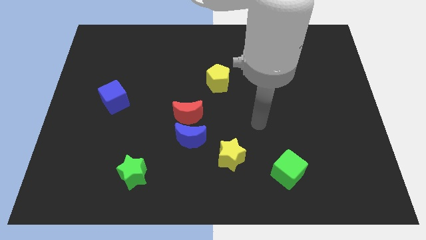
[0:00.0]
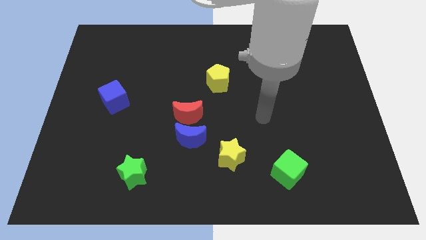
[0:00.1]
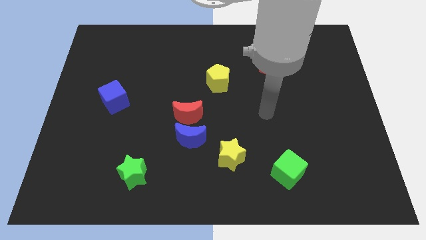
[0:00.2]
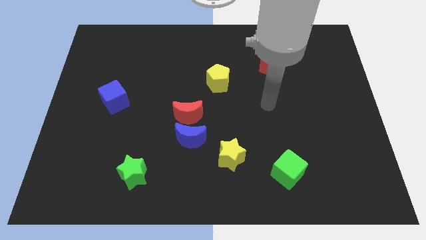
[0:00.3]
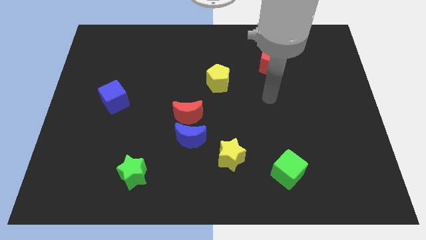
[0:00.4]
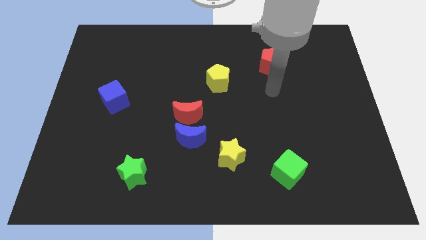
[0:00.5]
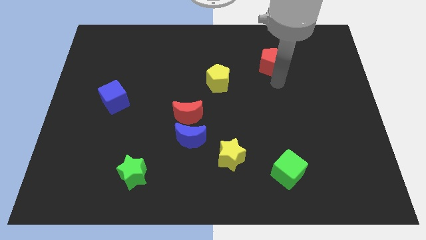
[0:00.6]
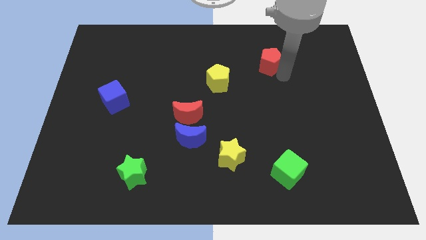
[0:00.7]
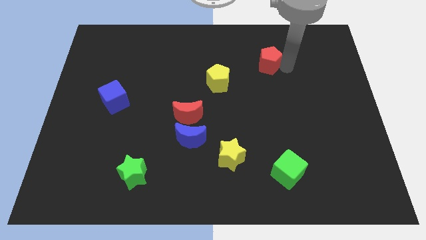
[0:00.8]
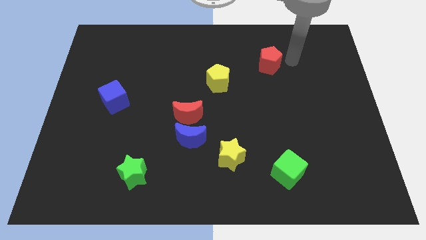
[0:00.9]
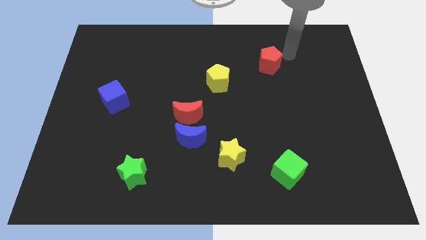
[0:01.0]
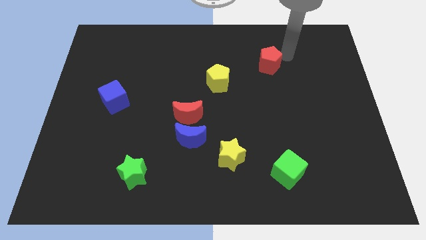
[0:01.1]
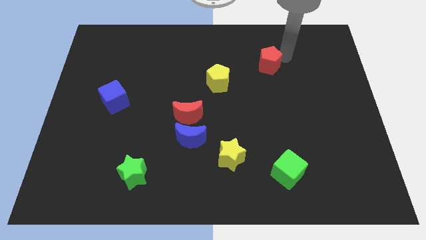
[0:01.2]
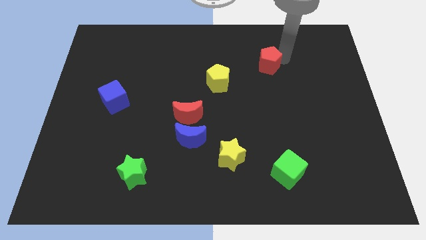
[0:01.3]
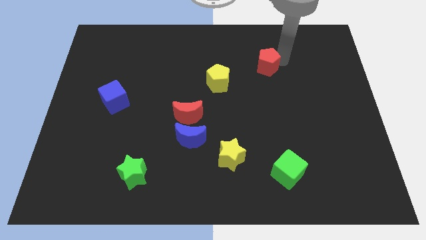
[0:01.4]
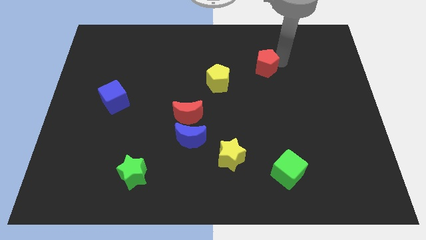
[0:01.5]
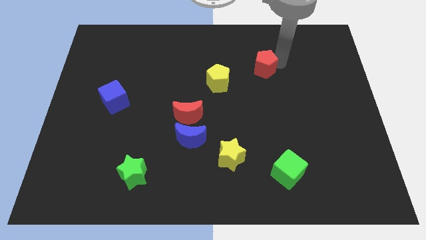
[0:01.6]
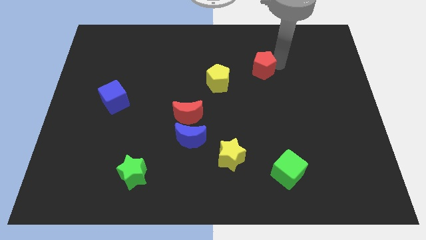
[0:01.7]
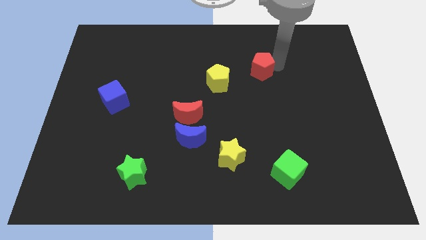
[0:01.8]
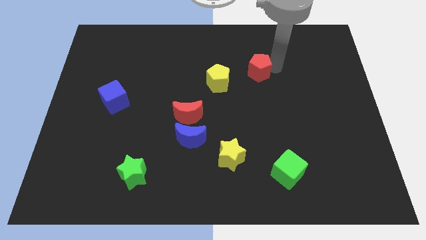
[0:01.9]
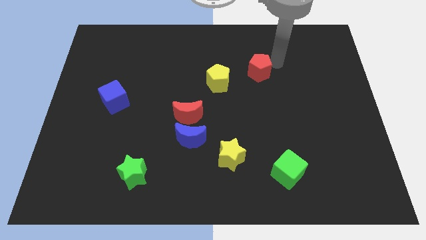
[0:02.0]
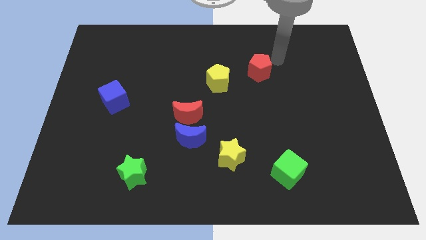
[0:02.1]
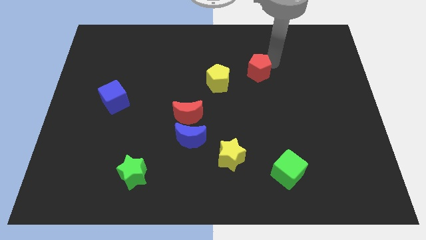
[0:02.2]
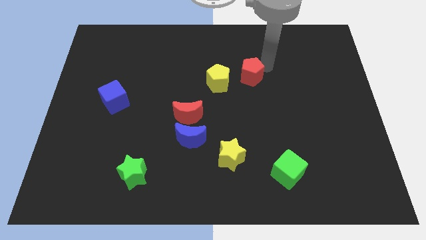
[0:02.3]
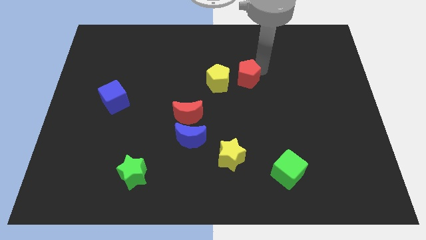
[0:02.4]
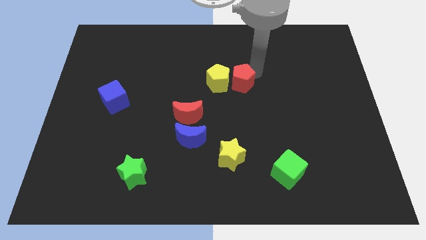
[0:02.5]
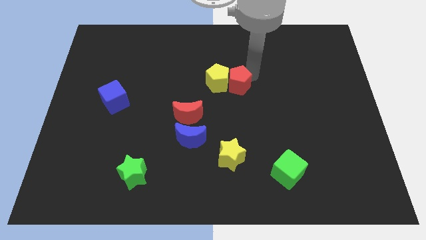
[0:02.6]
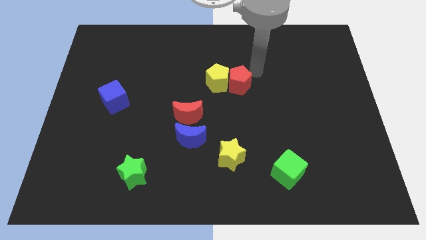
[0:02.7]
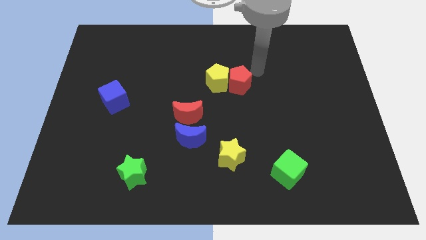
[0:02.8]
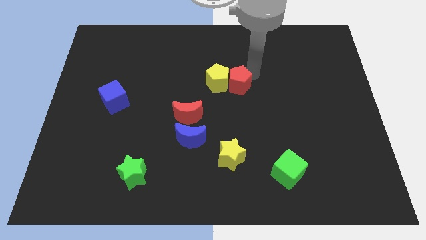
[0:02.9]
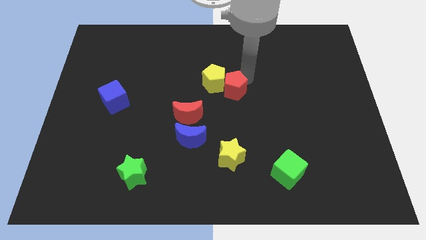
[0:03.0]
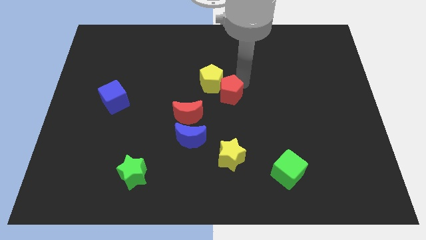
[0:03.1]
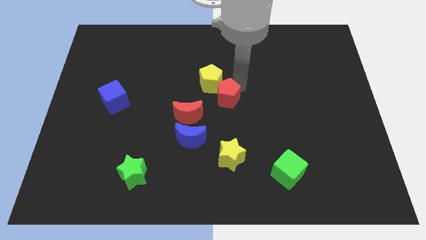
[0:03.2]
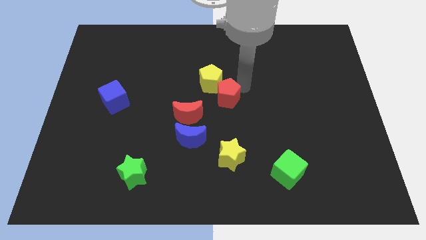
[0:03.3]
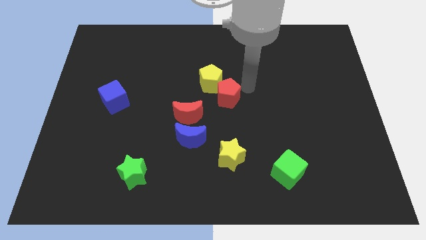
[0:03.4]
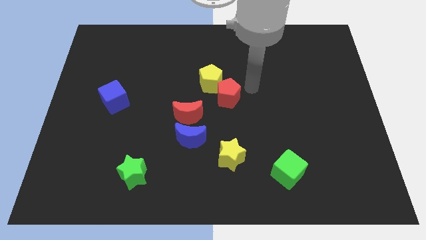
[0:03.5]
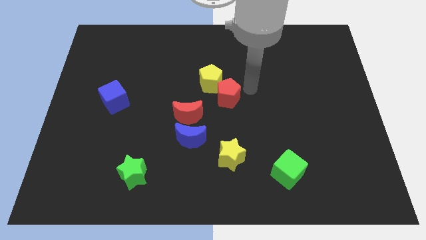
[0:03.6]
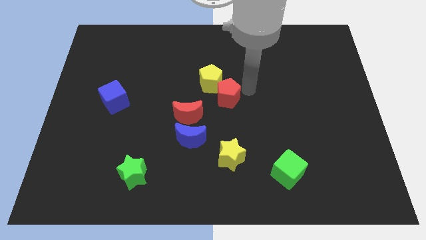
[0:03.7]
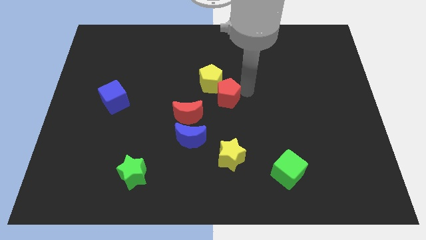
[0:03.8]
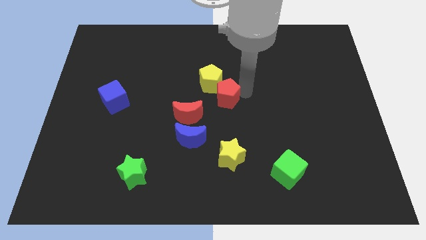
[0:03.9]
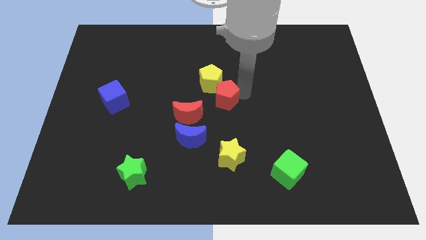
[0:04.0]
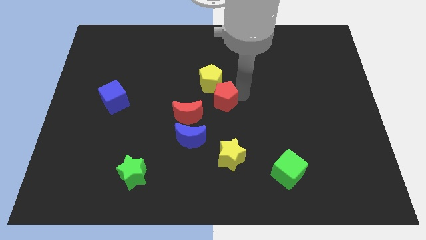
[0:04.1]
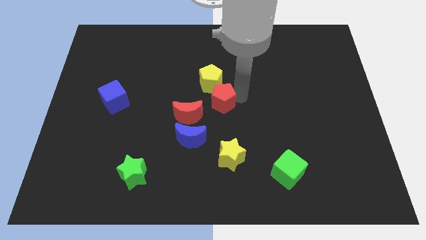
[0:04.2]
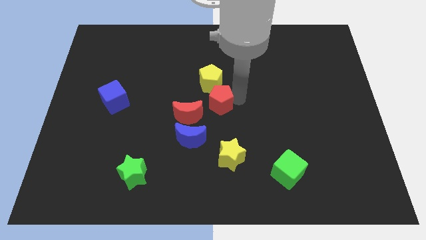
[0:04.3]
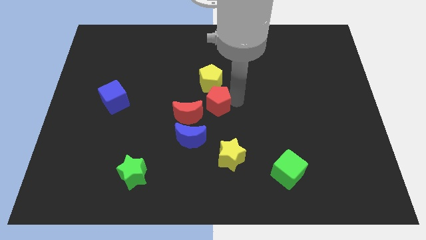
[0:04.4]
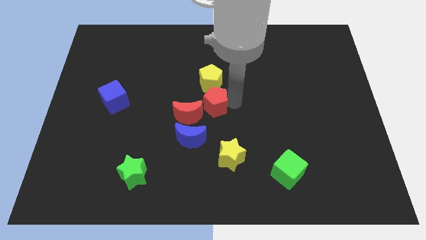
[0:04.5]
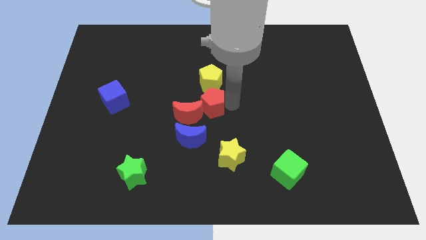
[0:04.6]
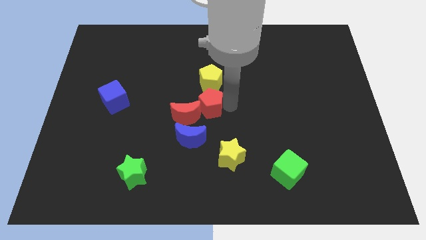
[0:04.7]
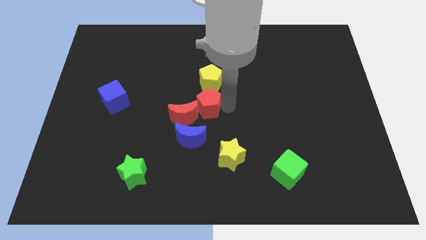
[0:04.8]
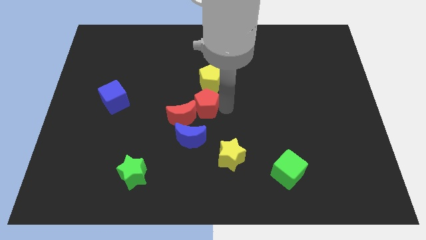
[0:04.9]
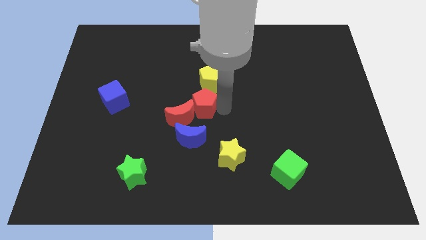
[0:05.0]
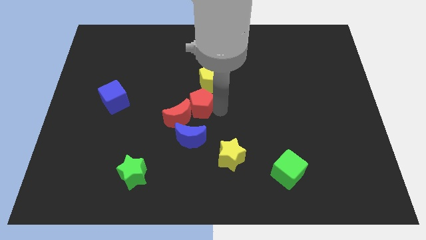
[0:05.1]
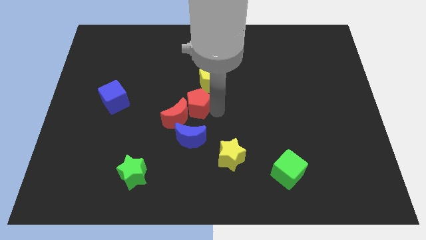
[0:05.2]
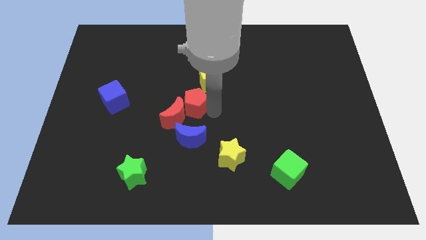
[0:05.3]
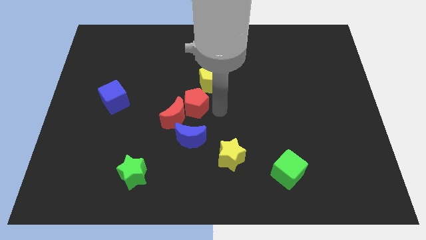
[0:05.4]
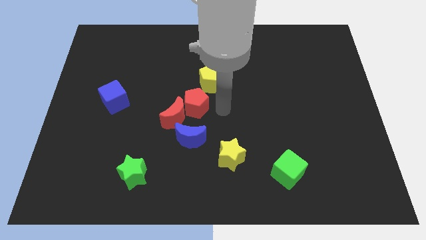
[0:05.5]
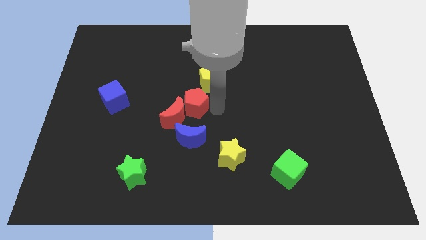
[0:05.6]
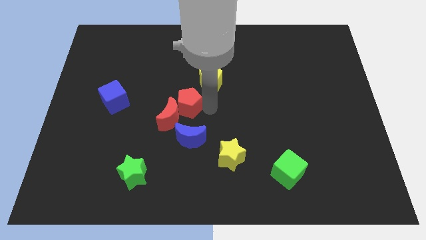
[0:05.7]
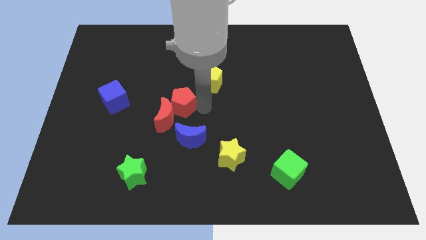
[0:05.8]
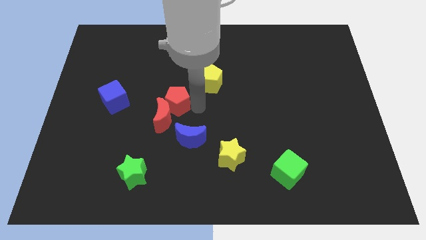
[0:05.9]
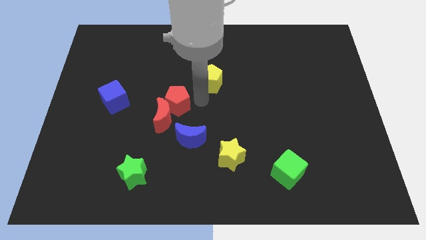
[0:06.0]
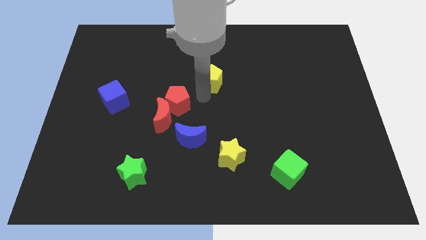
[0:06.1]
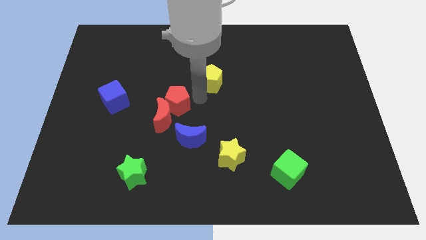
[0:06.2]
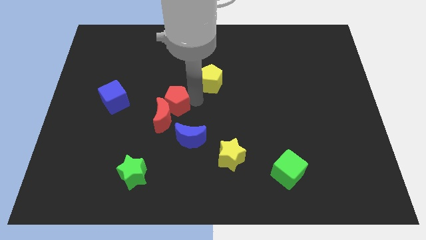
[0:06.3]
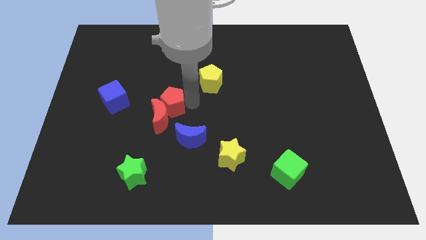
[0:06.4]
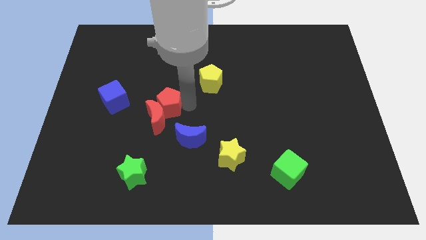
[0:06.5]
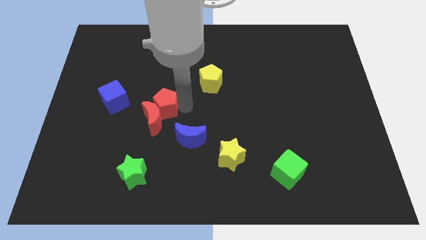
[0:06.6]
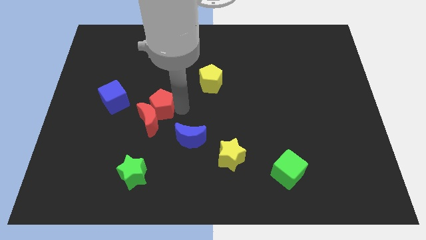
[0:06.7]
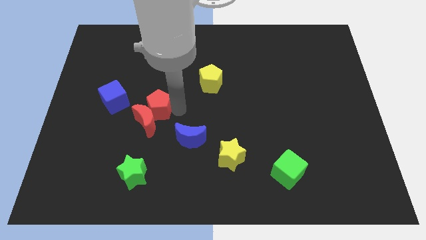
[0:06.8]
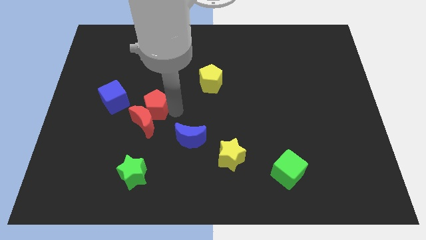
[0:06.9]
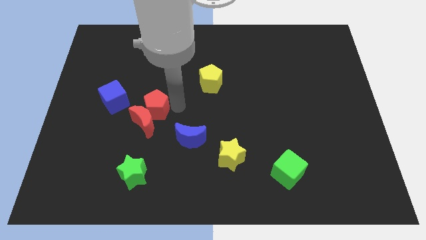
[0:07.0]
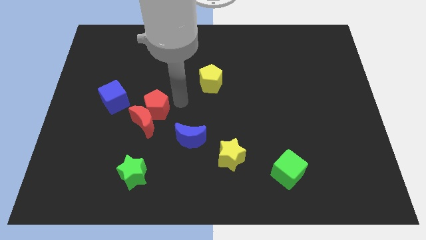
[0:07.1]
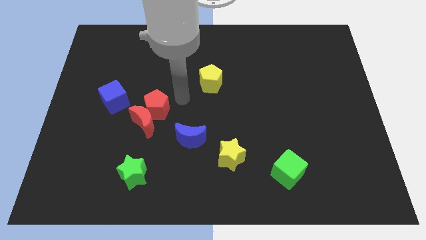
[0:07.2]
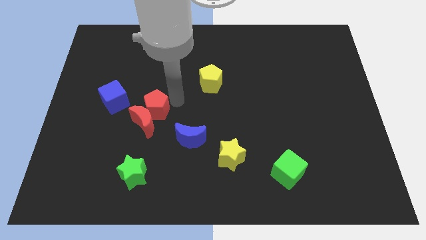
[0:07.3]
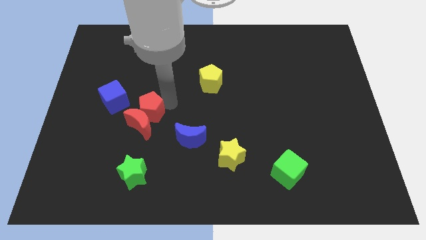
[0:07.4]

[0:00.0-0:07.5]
move the red pentagon to the bottom right side of the blue cube
